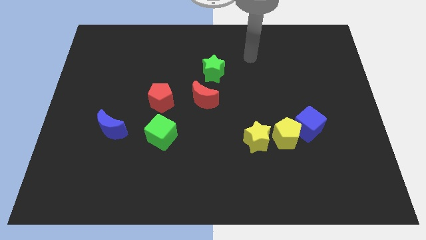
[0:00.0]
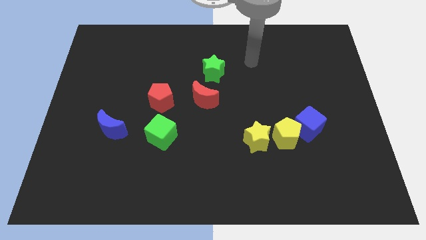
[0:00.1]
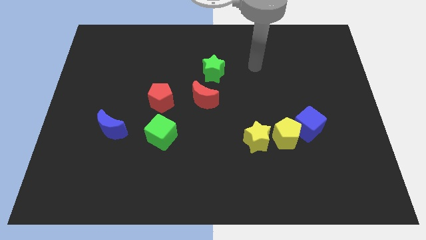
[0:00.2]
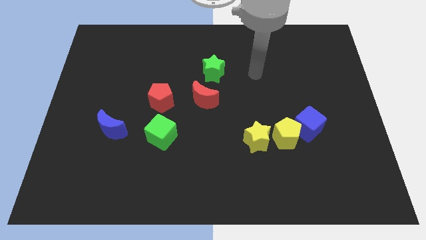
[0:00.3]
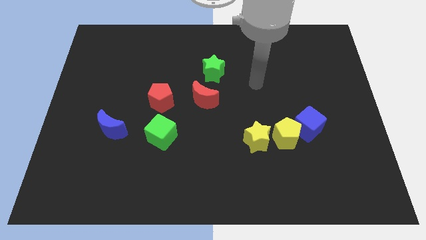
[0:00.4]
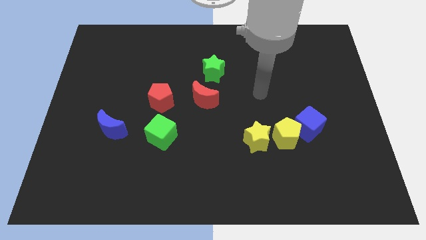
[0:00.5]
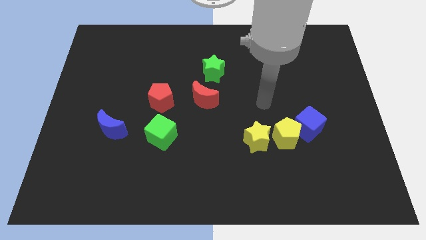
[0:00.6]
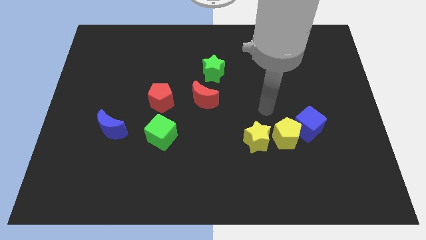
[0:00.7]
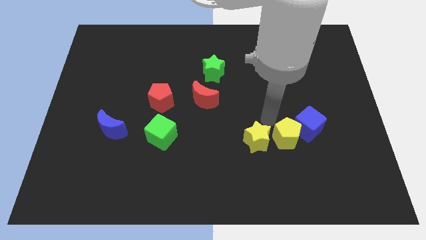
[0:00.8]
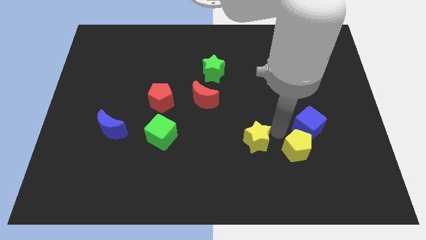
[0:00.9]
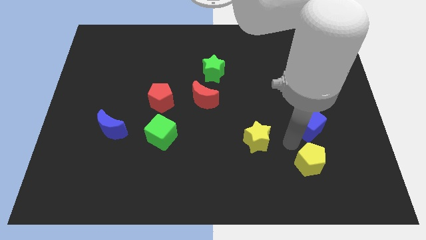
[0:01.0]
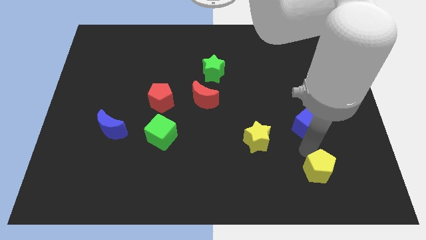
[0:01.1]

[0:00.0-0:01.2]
pull the blue cube apart from the yellow pentagon

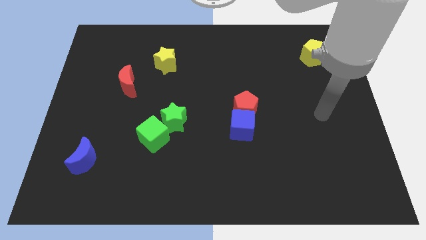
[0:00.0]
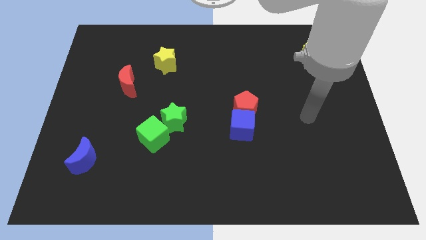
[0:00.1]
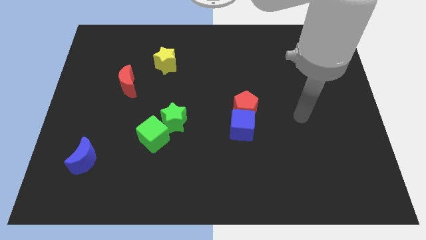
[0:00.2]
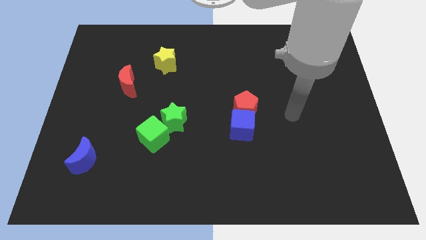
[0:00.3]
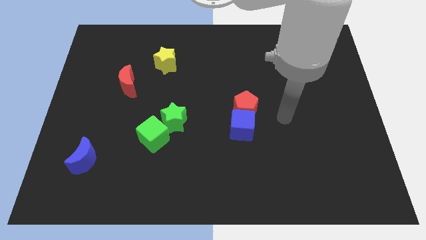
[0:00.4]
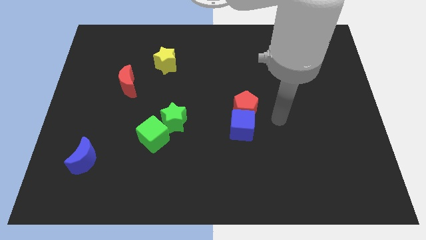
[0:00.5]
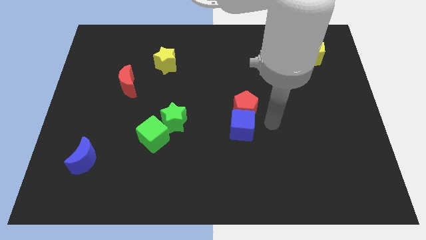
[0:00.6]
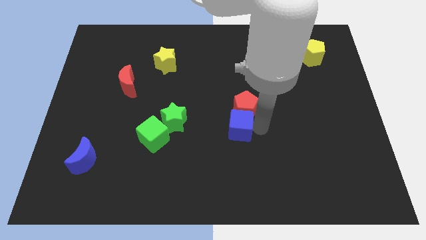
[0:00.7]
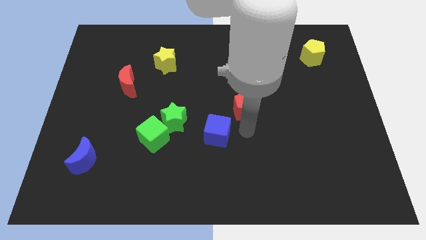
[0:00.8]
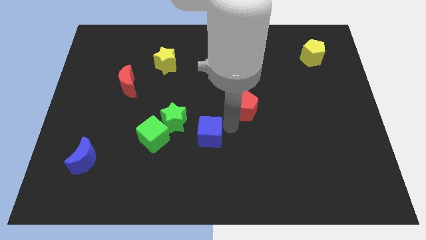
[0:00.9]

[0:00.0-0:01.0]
separate the red pentagon from the blue cube

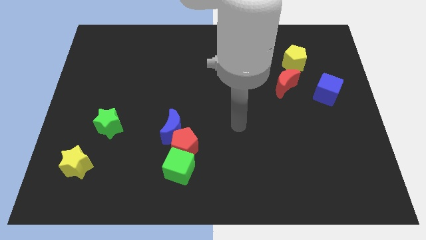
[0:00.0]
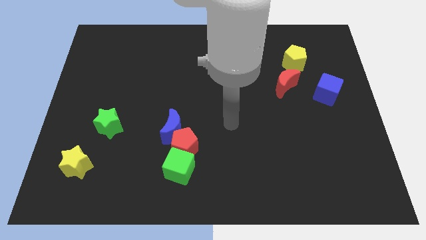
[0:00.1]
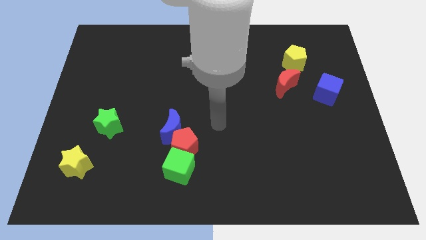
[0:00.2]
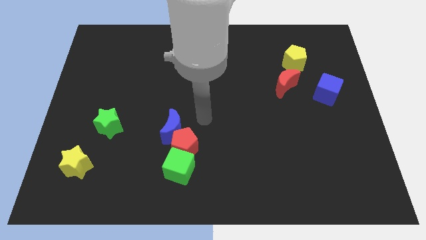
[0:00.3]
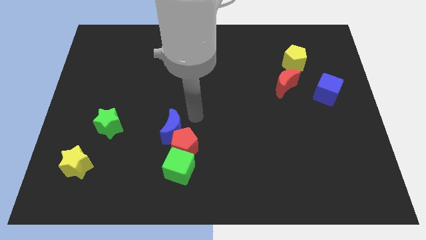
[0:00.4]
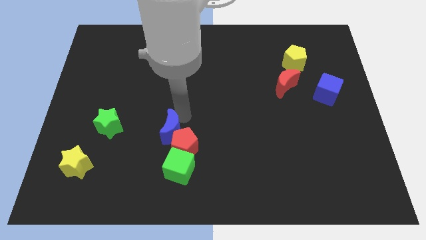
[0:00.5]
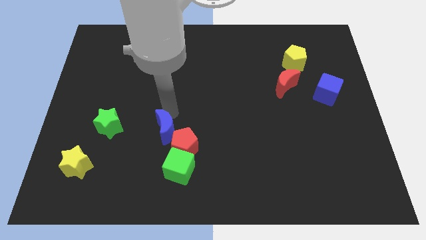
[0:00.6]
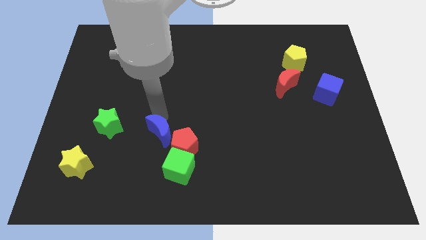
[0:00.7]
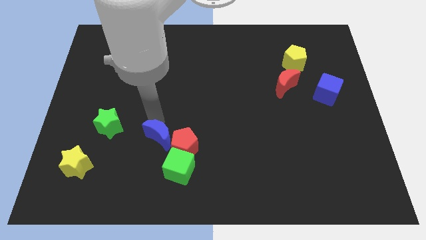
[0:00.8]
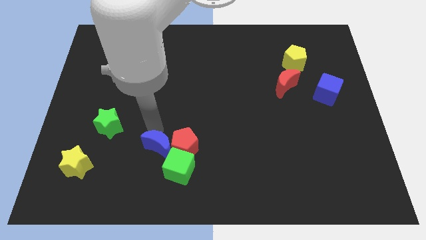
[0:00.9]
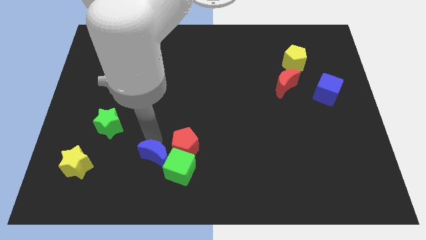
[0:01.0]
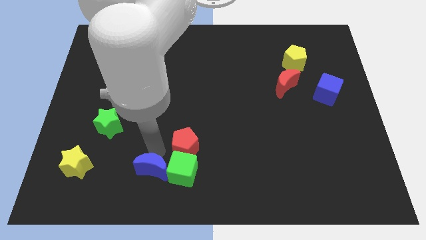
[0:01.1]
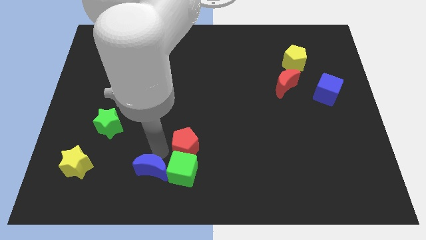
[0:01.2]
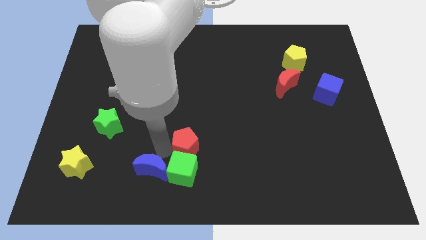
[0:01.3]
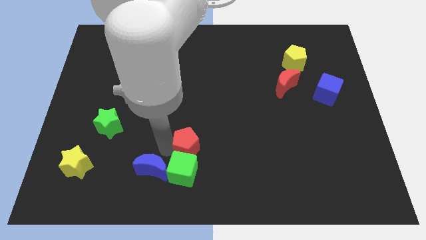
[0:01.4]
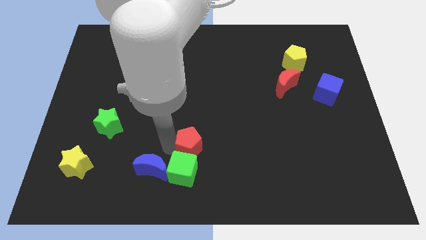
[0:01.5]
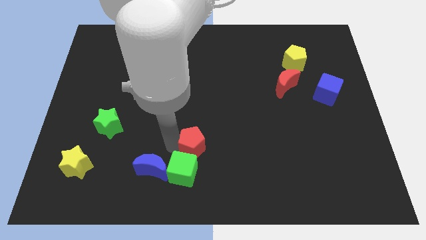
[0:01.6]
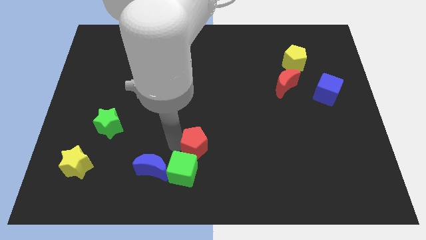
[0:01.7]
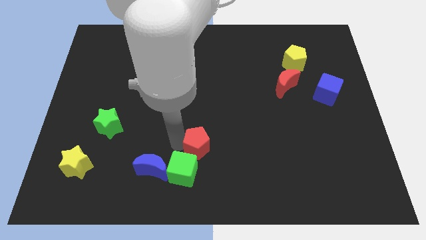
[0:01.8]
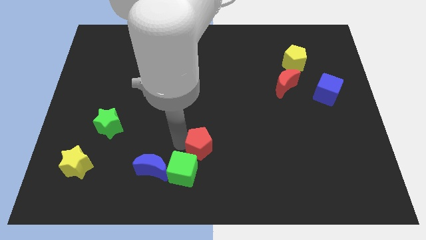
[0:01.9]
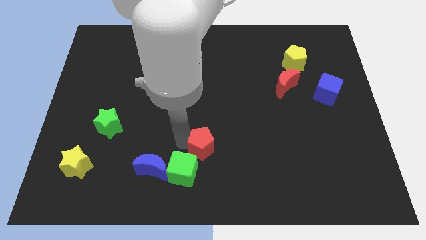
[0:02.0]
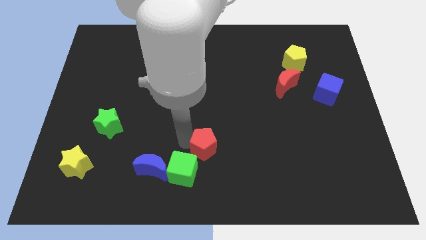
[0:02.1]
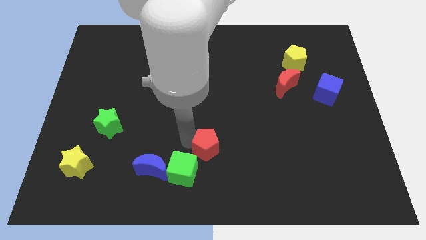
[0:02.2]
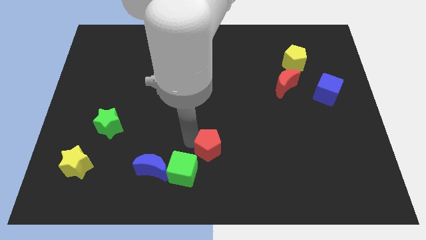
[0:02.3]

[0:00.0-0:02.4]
move the red pentagon away from the blue moon and green cube

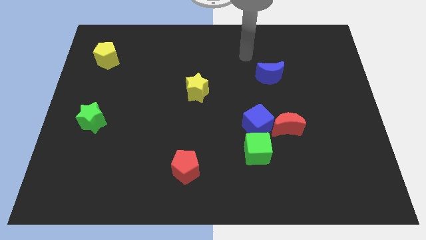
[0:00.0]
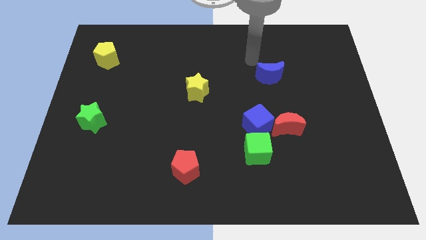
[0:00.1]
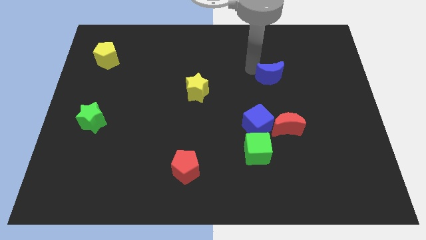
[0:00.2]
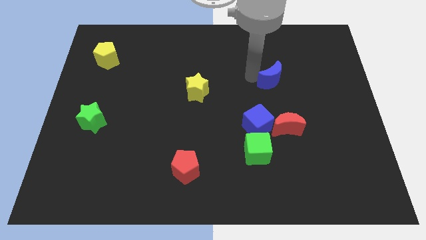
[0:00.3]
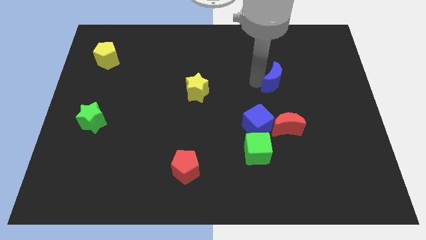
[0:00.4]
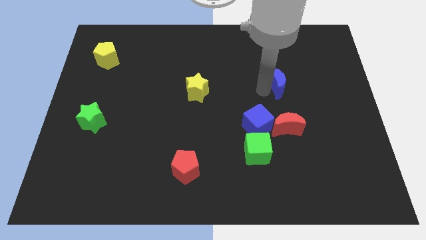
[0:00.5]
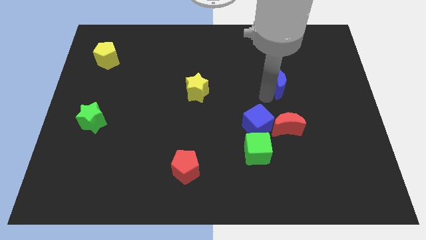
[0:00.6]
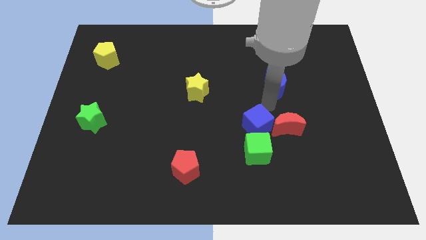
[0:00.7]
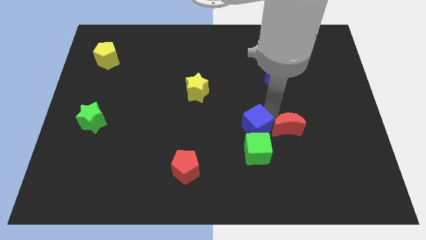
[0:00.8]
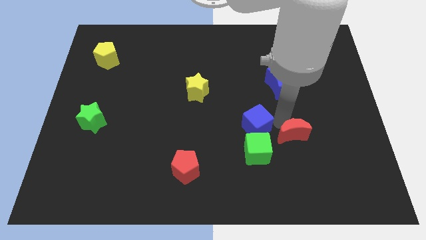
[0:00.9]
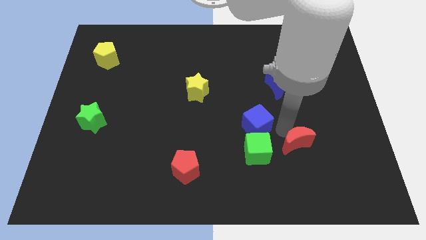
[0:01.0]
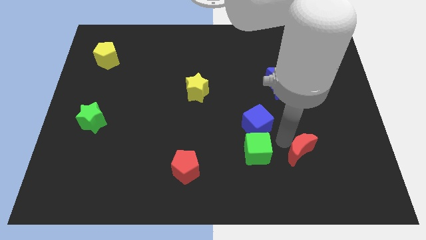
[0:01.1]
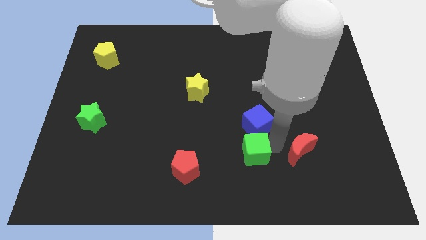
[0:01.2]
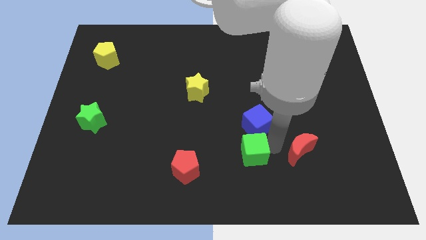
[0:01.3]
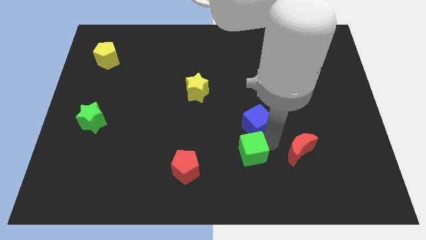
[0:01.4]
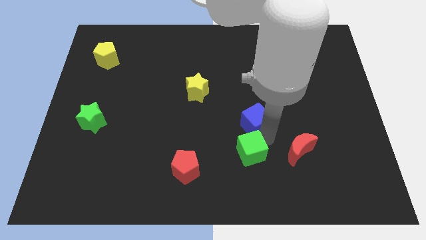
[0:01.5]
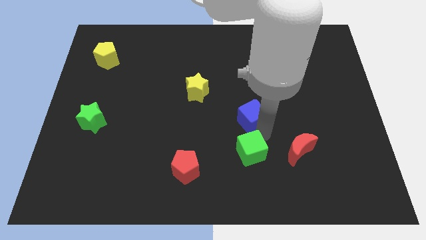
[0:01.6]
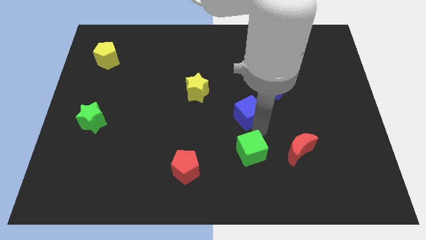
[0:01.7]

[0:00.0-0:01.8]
separate the blue cube from the red moon and green cube

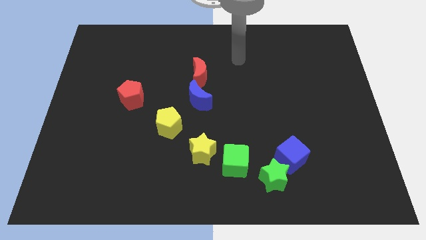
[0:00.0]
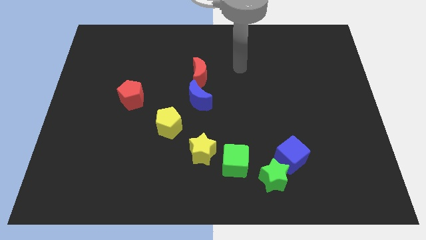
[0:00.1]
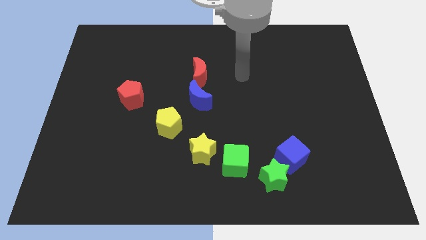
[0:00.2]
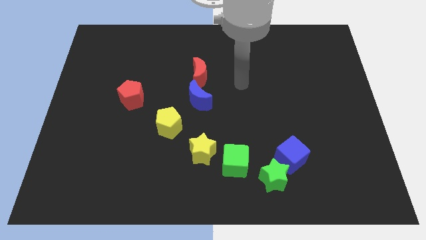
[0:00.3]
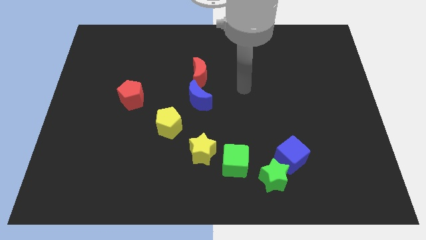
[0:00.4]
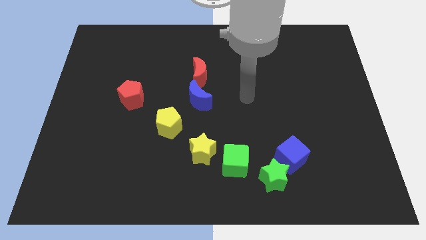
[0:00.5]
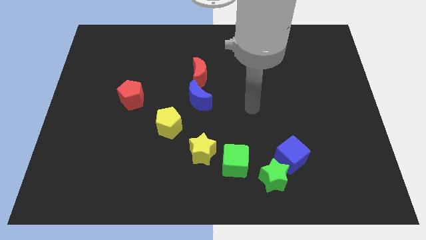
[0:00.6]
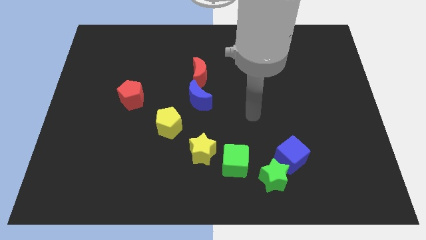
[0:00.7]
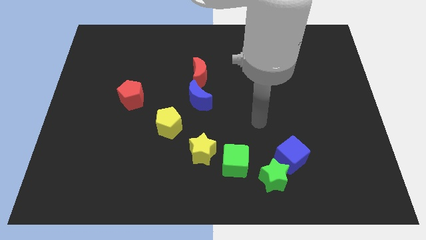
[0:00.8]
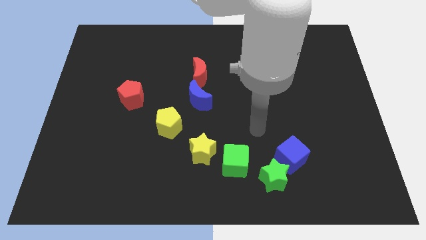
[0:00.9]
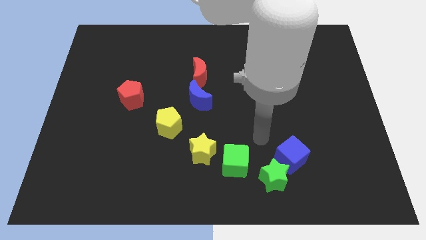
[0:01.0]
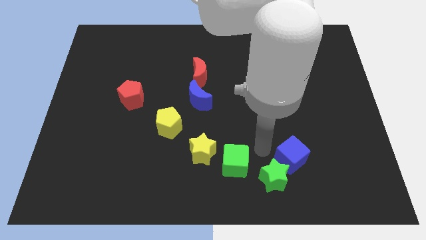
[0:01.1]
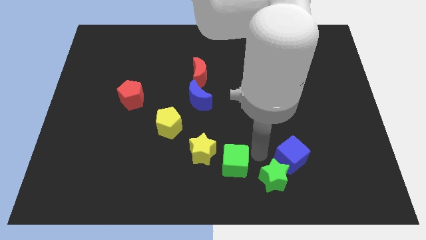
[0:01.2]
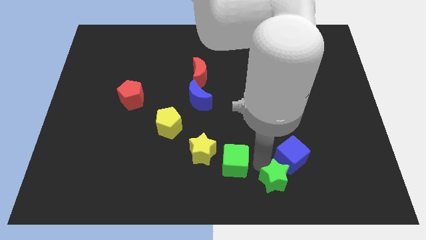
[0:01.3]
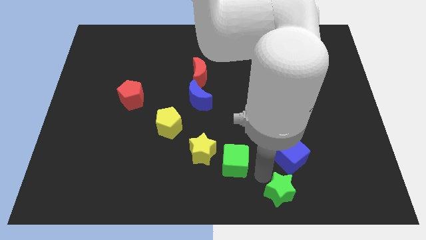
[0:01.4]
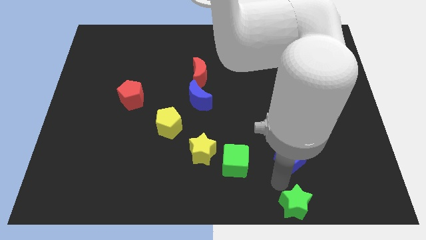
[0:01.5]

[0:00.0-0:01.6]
pull the blue cube apart from the green star

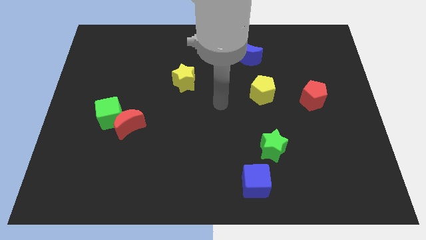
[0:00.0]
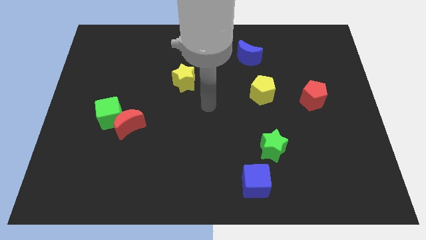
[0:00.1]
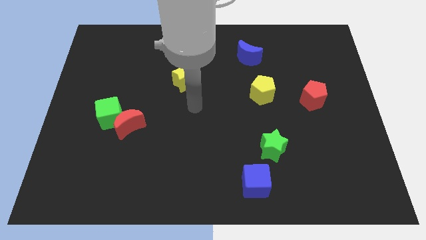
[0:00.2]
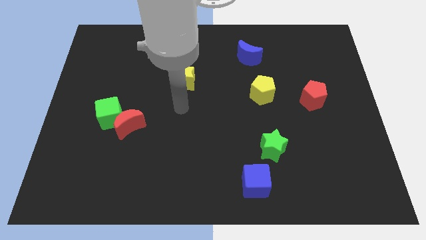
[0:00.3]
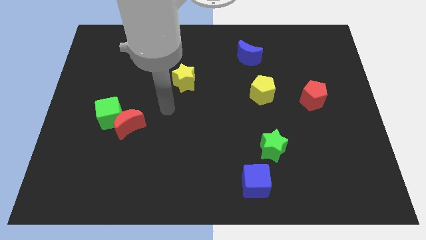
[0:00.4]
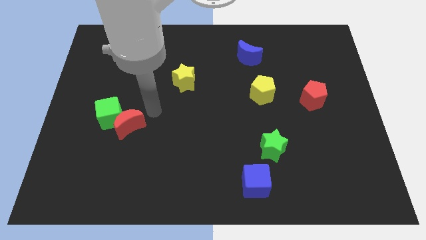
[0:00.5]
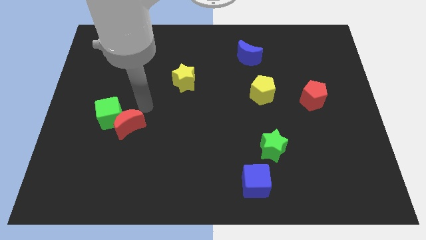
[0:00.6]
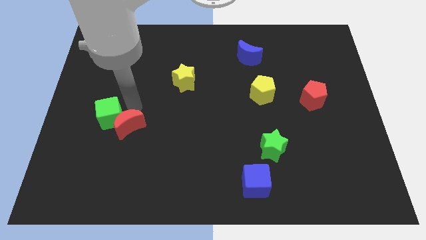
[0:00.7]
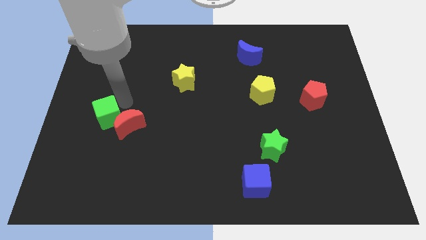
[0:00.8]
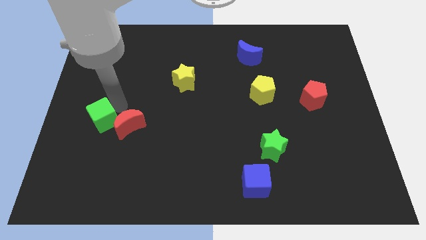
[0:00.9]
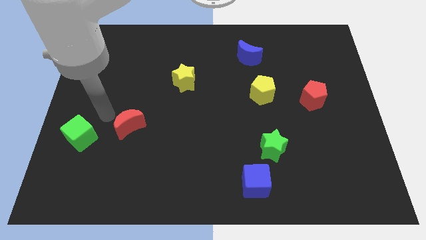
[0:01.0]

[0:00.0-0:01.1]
move the red moon away from the green cube
